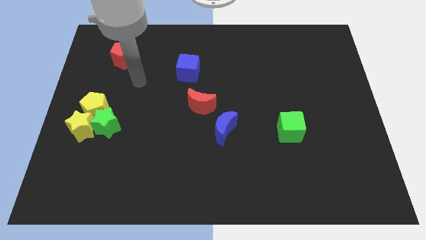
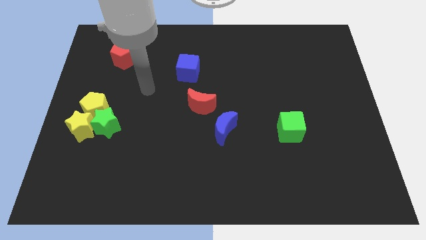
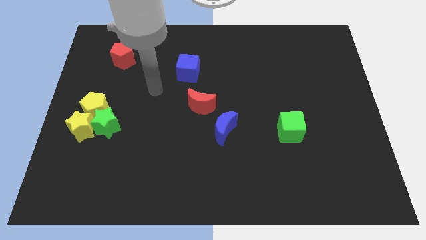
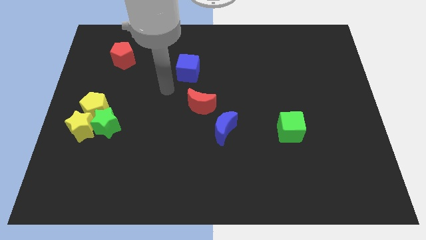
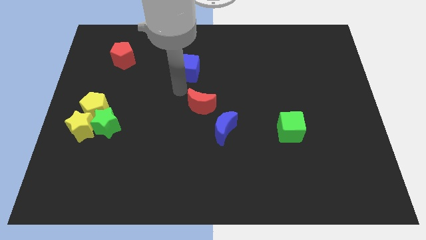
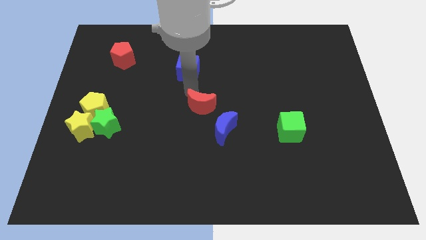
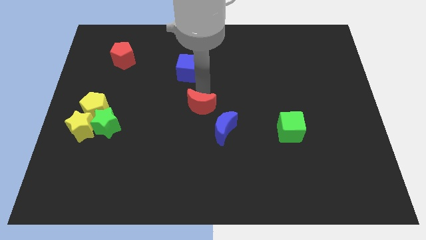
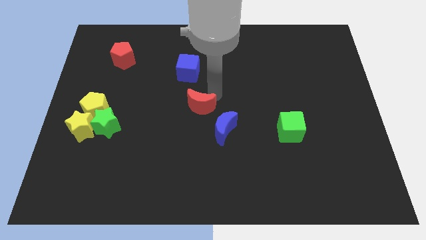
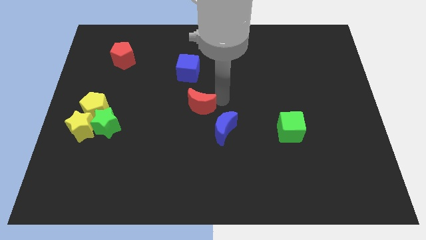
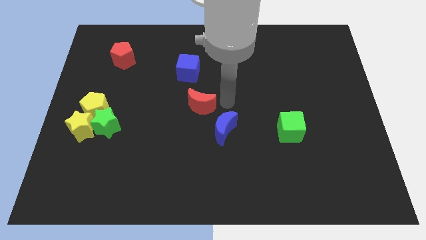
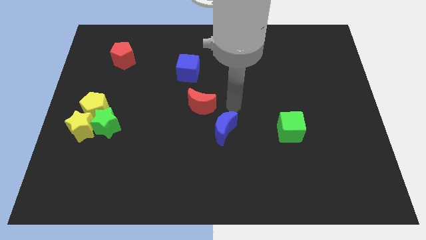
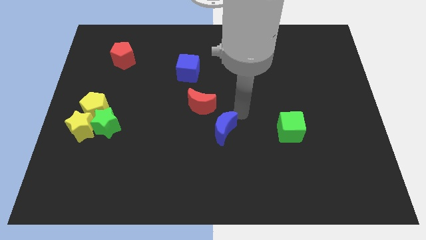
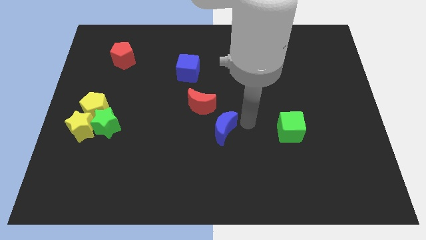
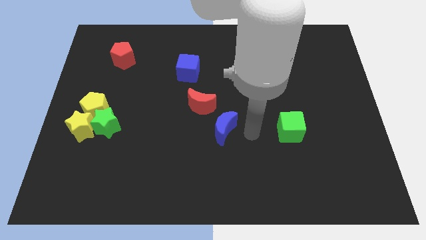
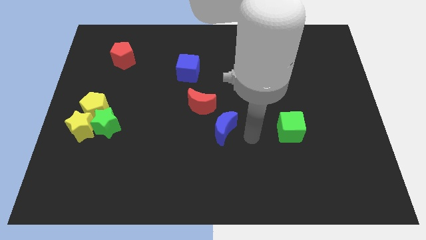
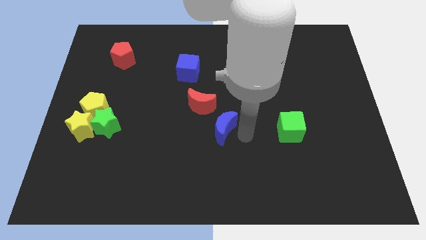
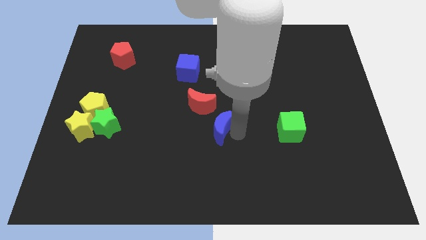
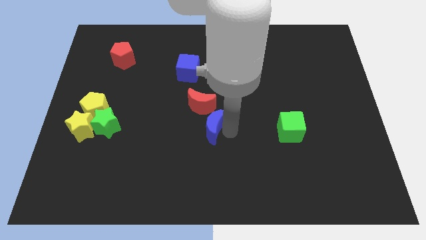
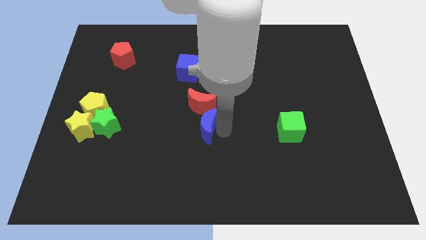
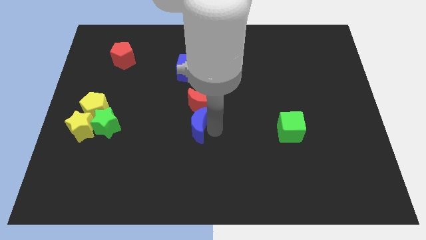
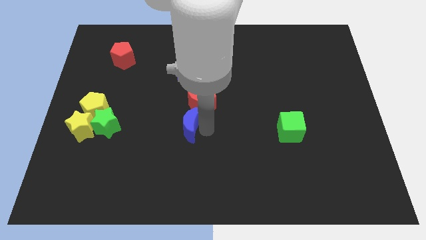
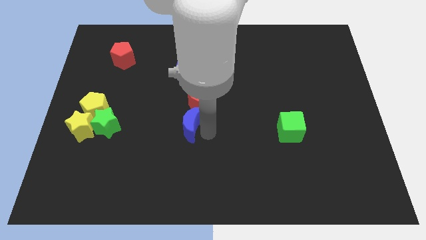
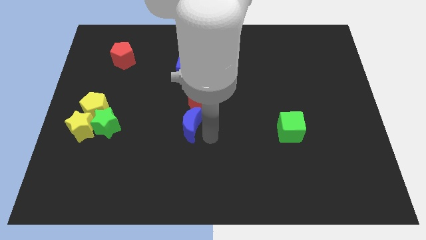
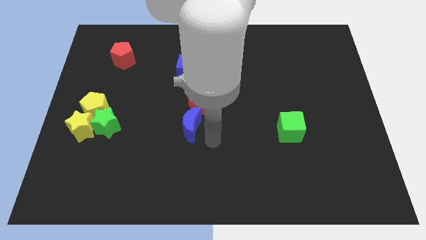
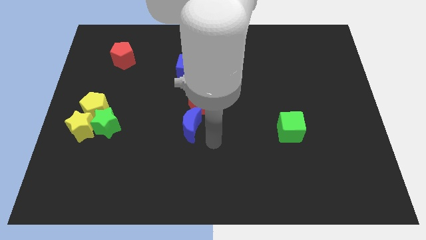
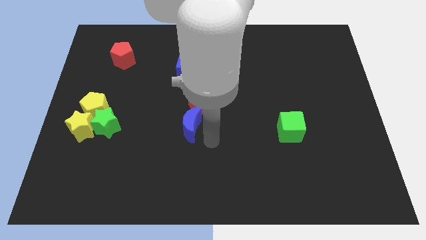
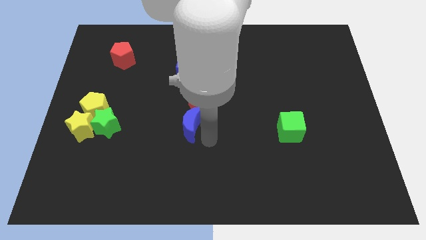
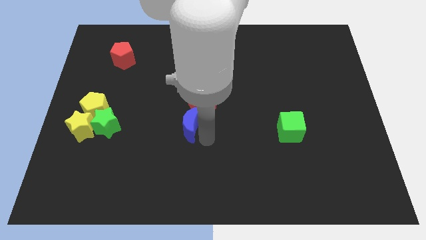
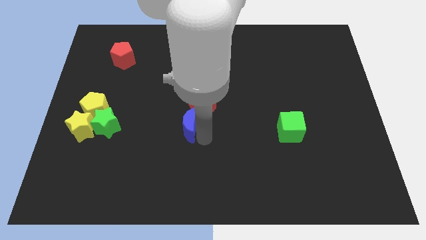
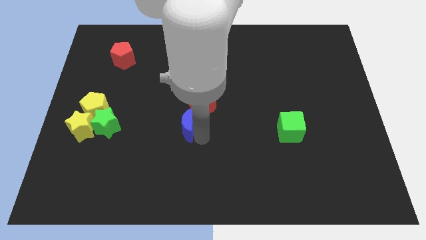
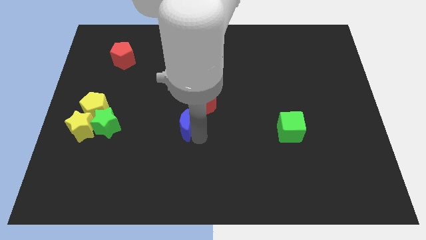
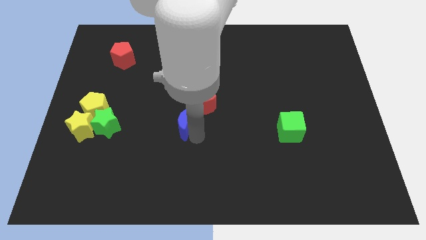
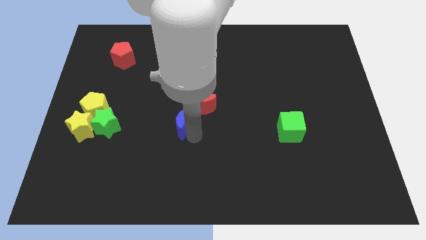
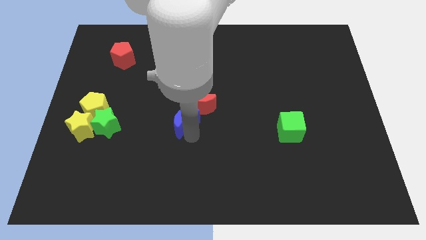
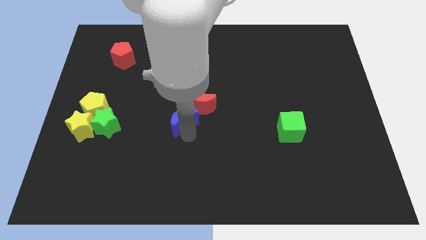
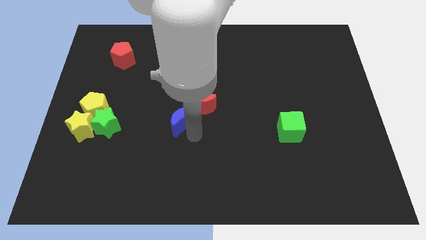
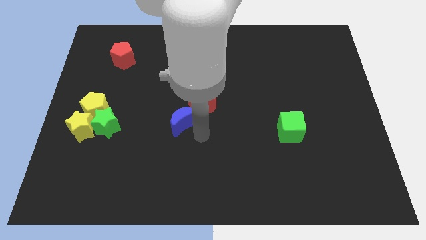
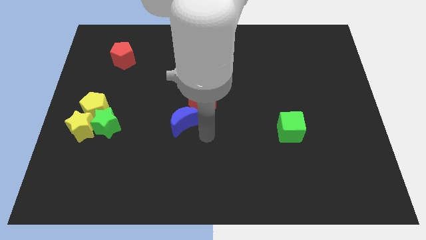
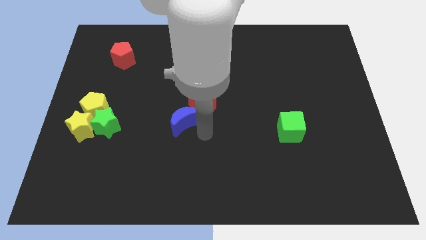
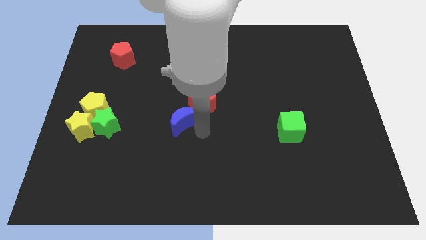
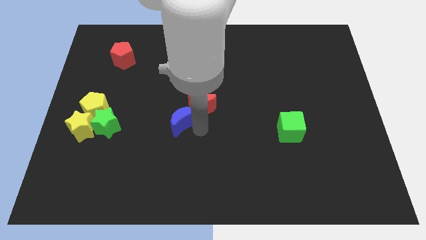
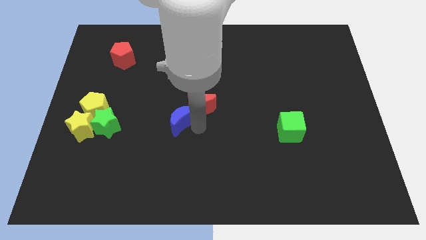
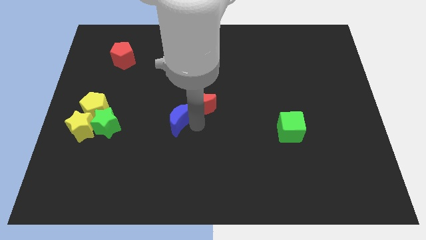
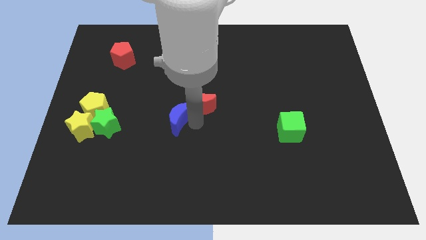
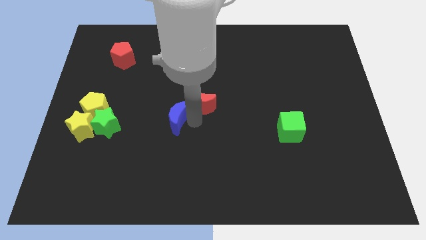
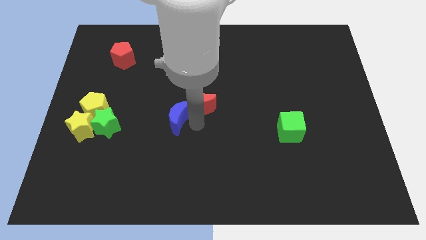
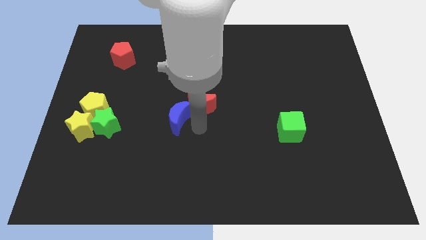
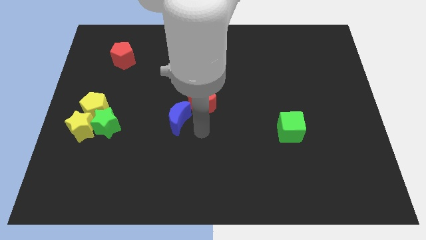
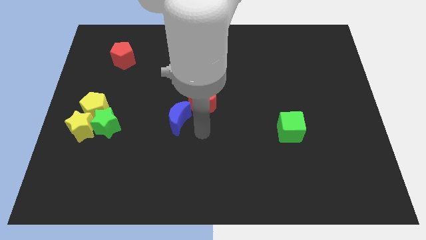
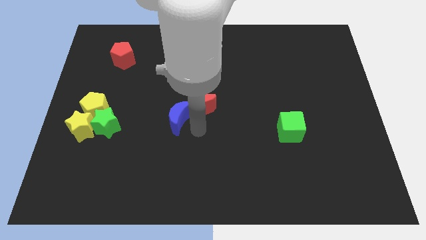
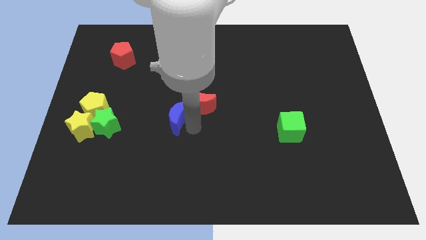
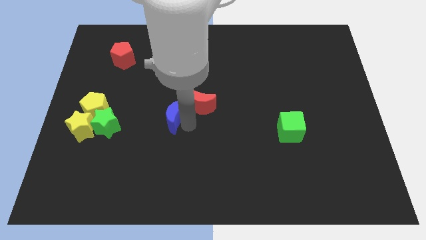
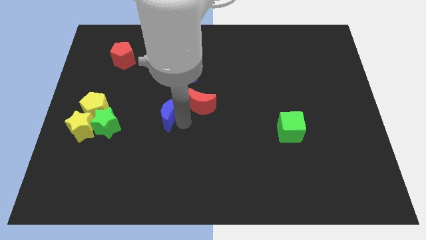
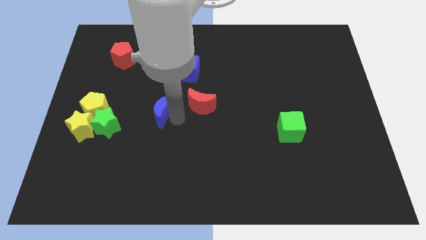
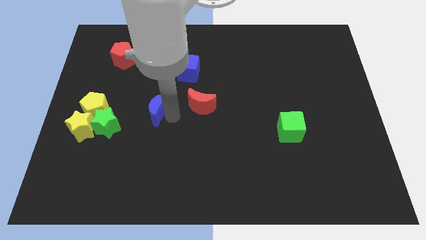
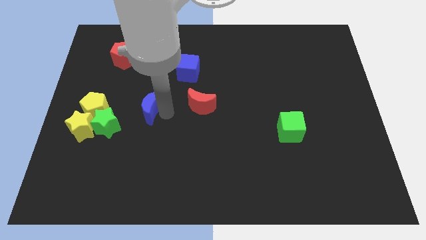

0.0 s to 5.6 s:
push the blue moon diagonally up and to the right of the green star

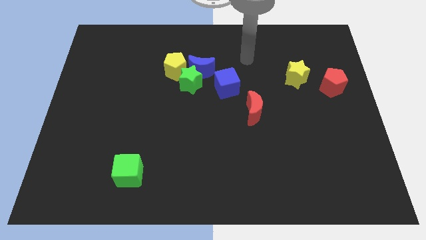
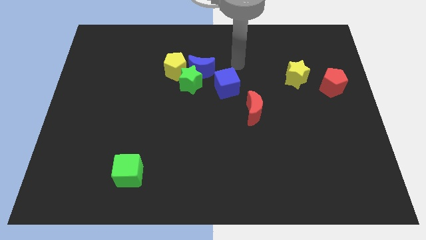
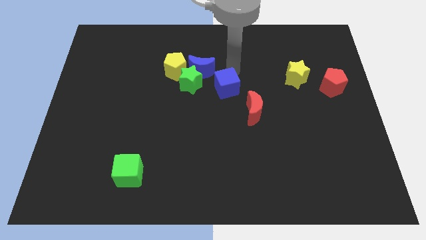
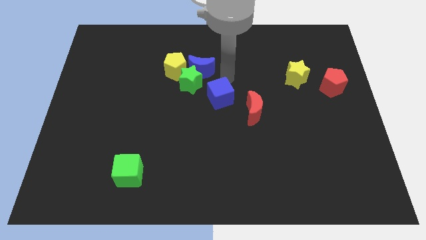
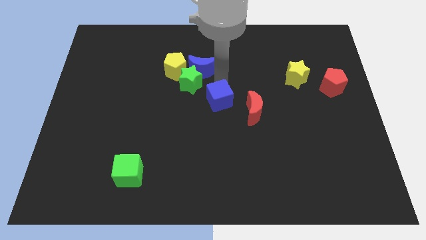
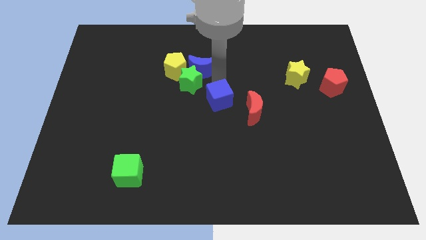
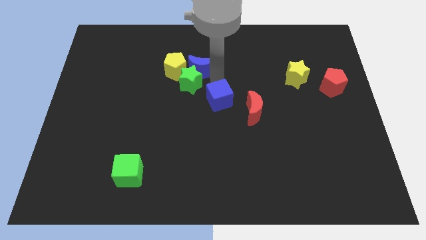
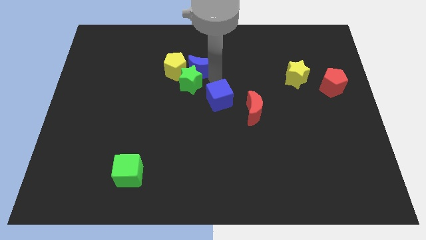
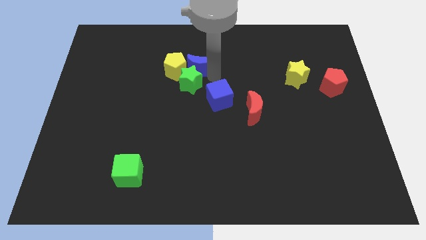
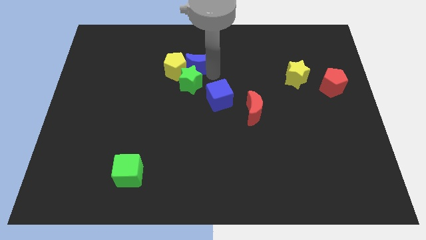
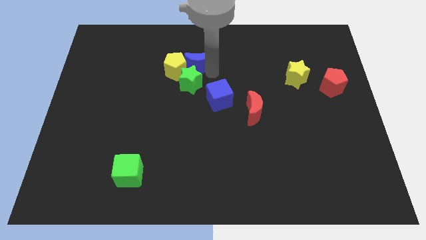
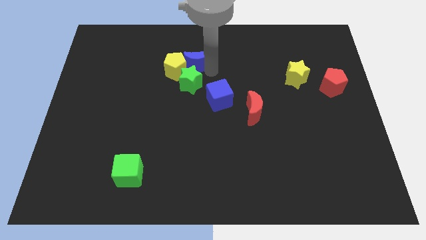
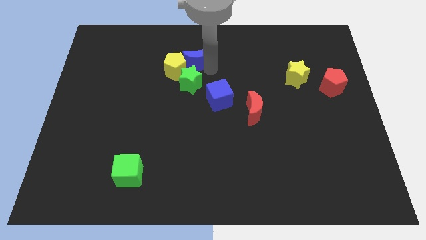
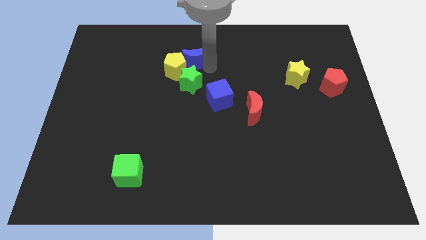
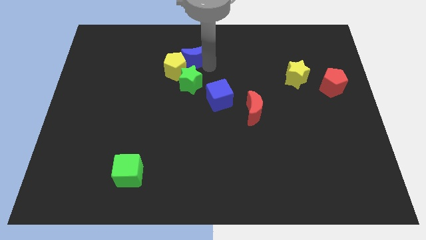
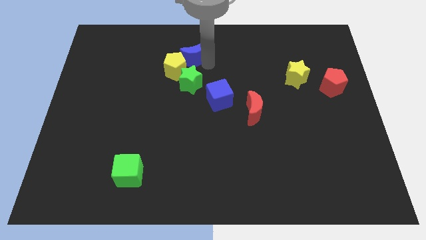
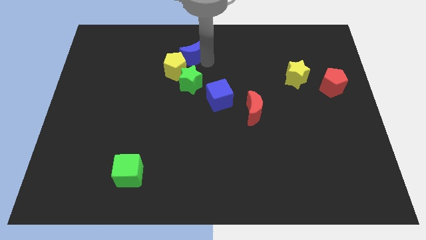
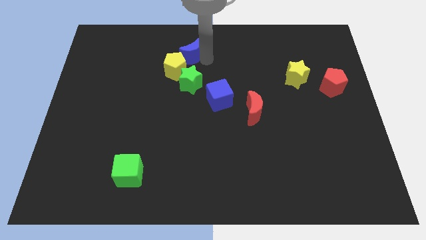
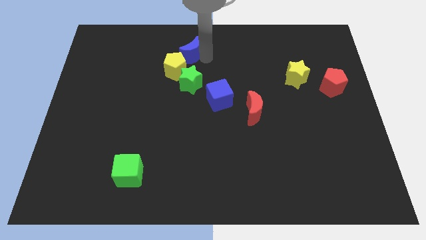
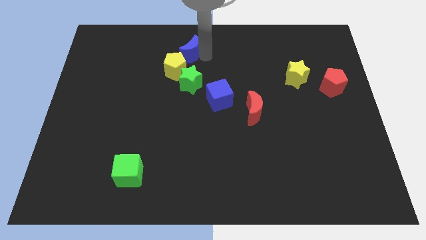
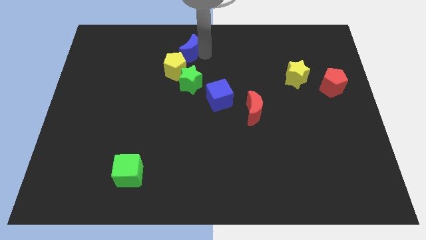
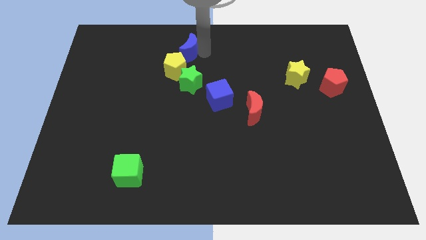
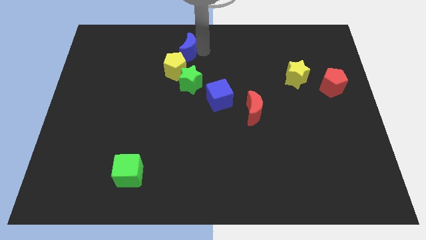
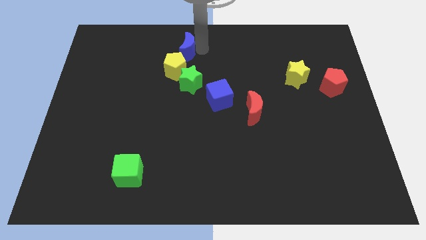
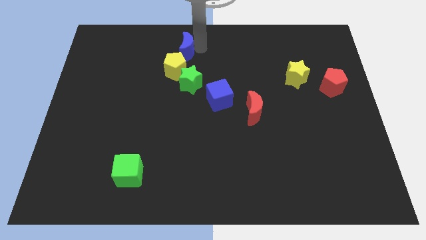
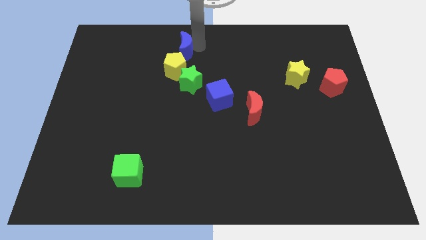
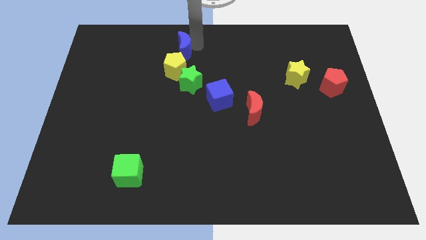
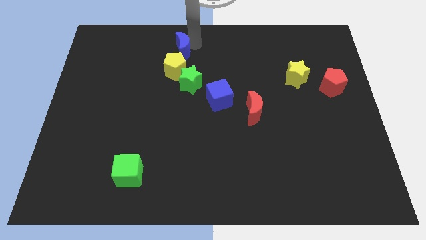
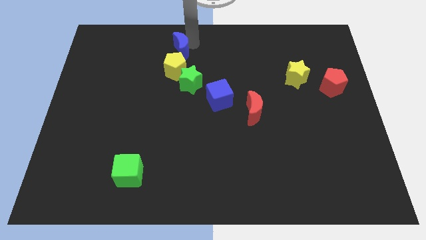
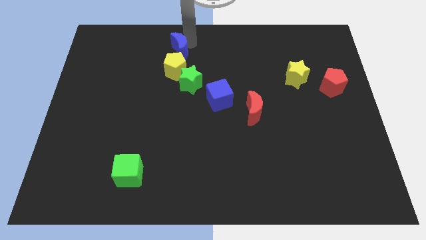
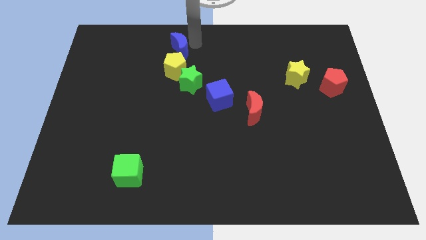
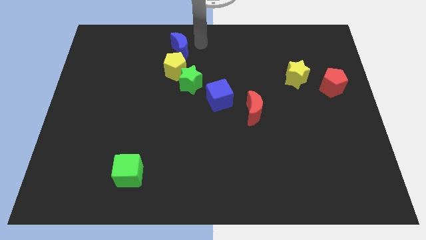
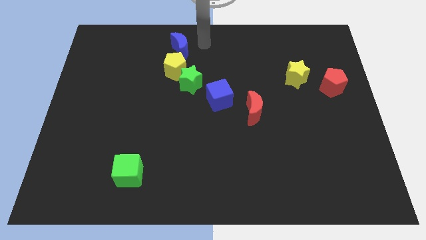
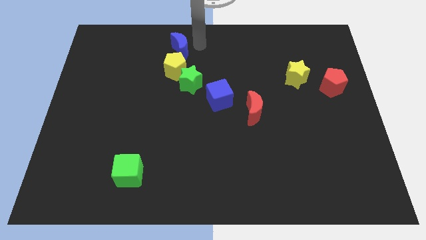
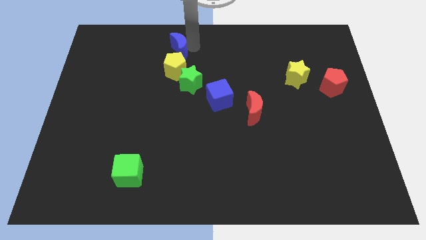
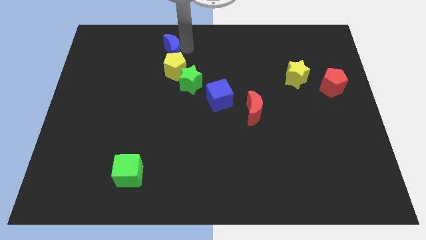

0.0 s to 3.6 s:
push the blue moon to the top left of the yellow pentagon
